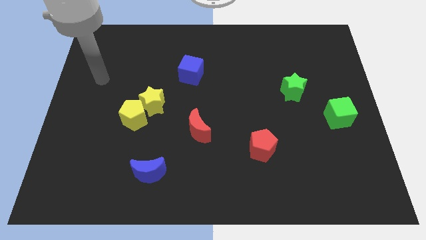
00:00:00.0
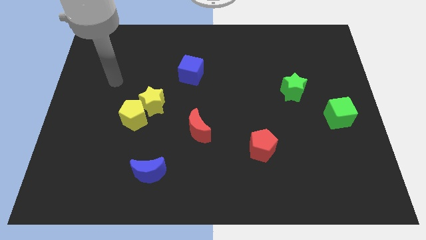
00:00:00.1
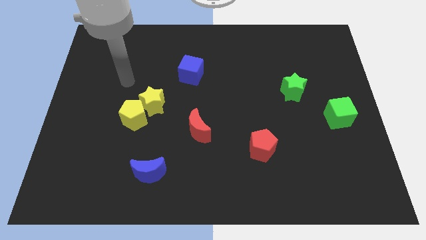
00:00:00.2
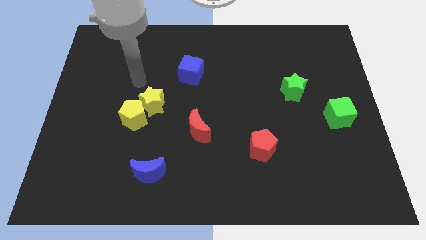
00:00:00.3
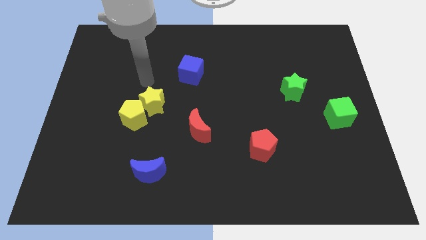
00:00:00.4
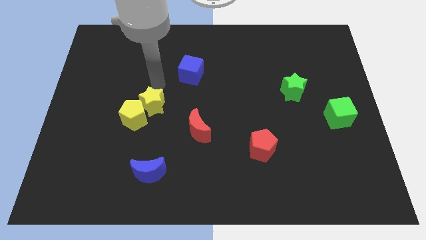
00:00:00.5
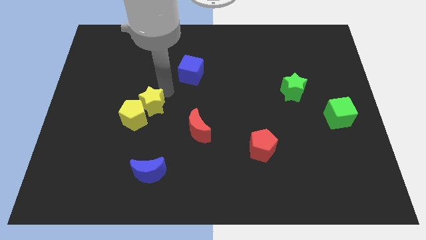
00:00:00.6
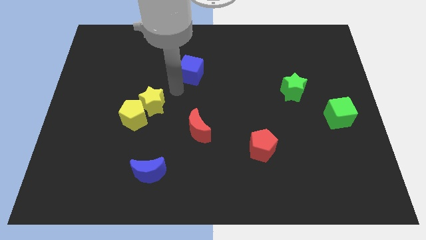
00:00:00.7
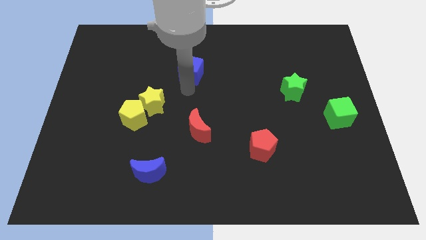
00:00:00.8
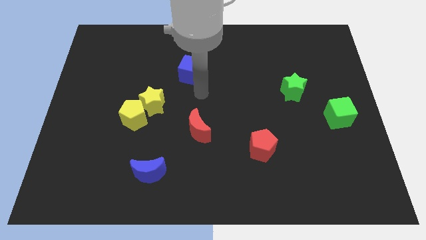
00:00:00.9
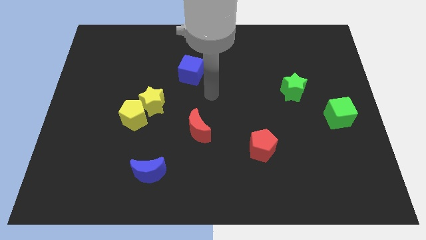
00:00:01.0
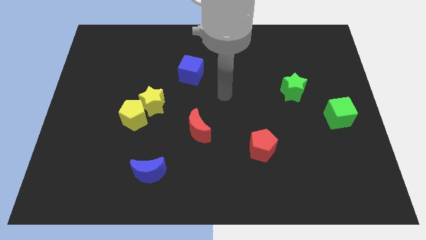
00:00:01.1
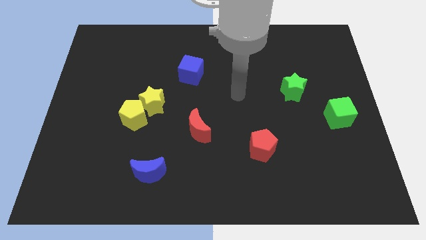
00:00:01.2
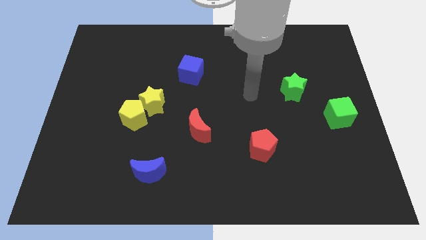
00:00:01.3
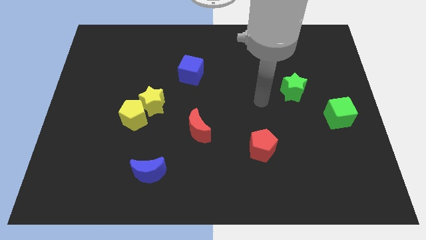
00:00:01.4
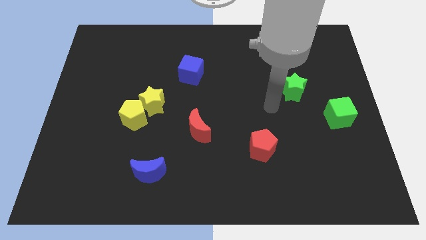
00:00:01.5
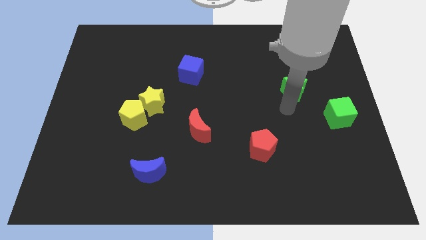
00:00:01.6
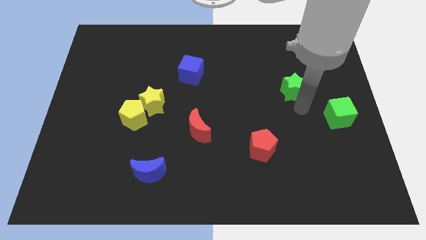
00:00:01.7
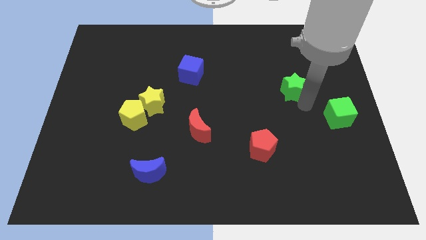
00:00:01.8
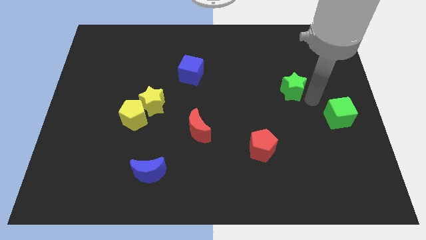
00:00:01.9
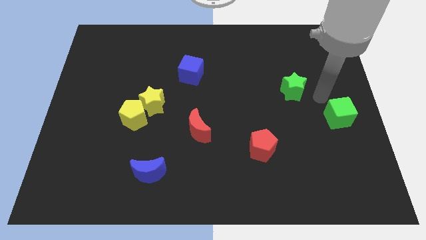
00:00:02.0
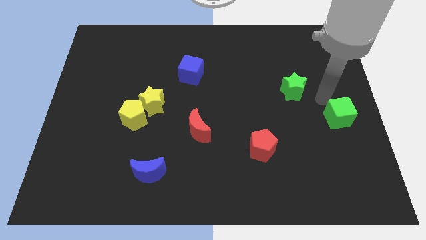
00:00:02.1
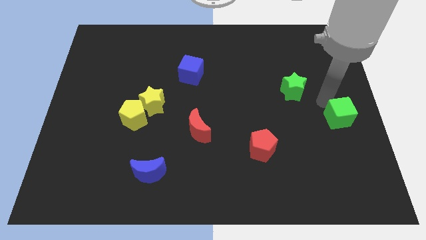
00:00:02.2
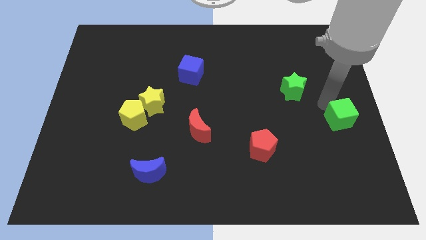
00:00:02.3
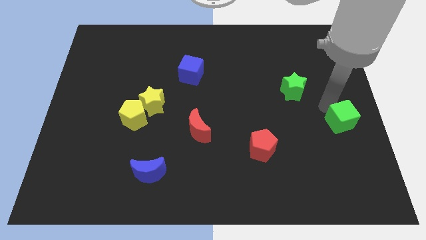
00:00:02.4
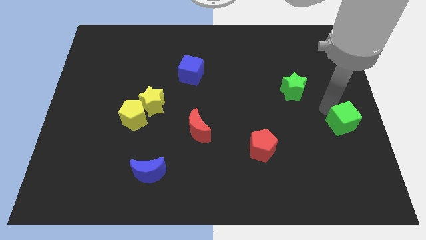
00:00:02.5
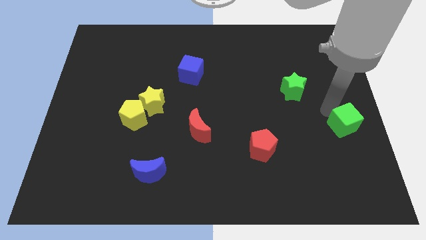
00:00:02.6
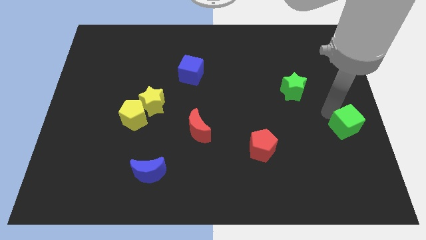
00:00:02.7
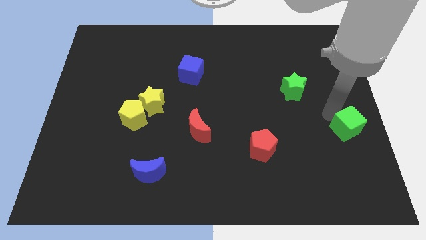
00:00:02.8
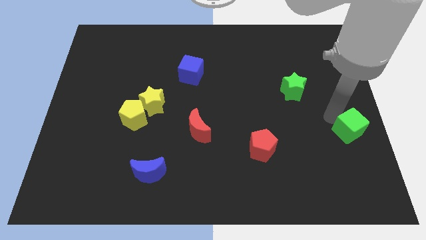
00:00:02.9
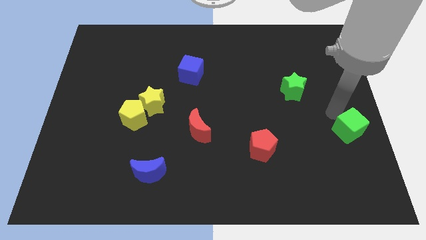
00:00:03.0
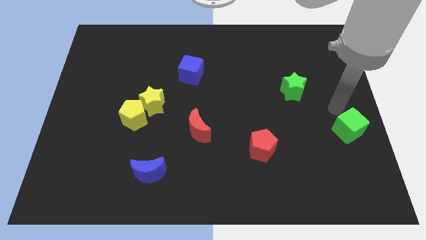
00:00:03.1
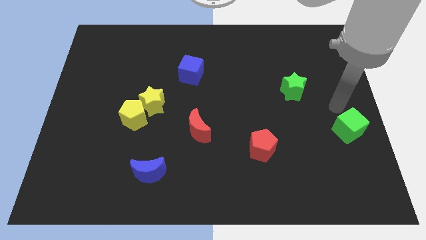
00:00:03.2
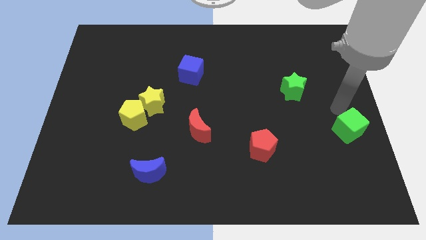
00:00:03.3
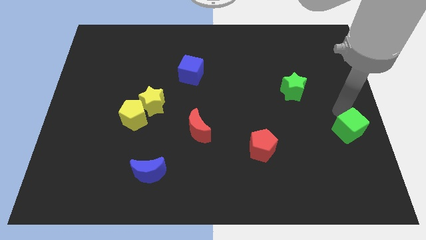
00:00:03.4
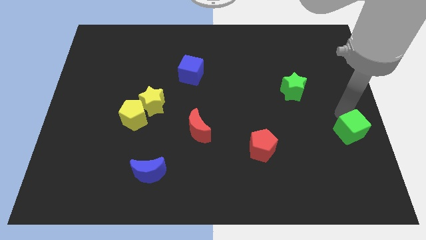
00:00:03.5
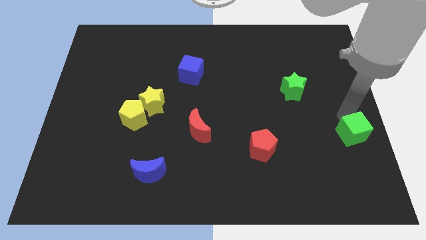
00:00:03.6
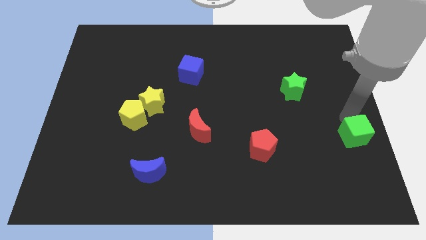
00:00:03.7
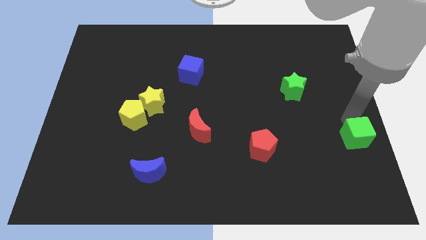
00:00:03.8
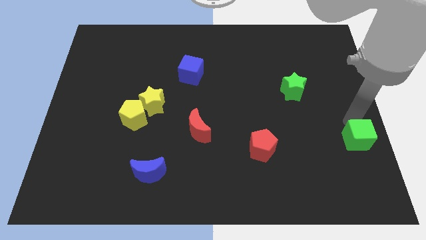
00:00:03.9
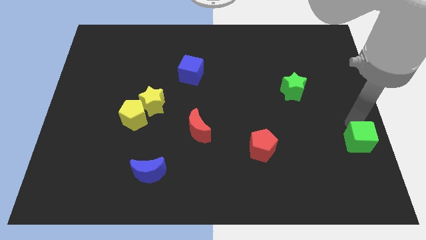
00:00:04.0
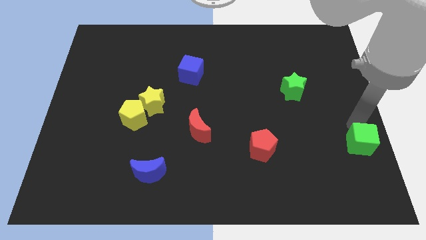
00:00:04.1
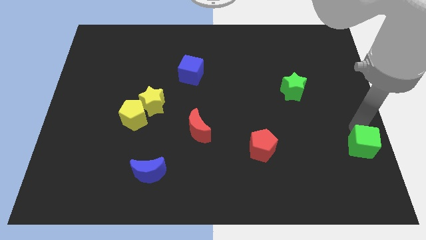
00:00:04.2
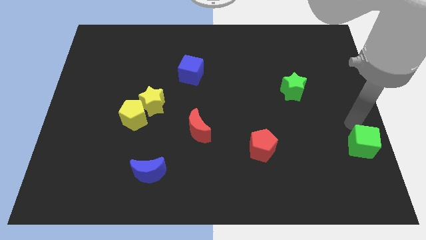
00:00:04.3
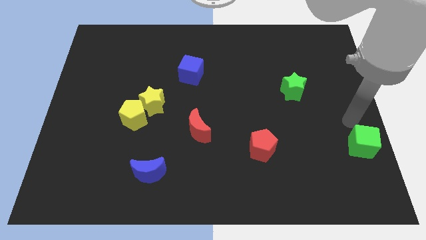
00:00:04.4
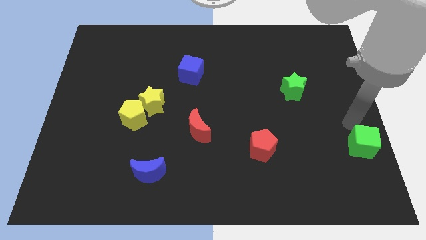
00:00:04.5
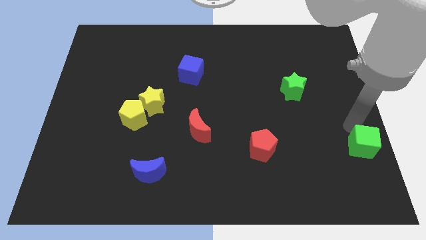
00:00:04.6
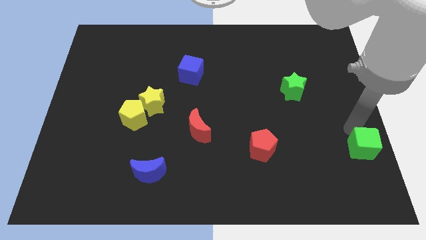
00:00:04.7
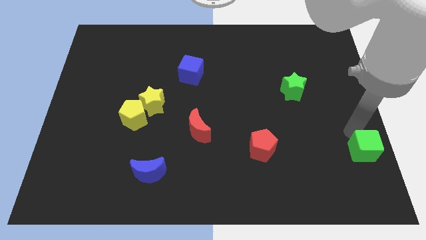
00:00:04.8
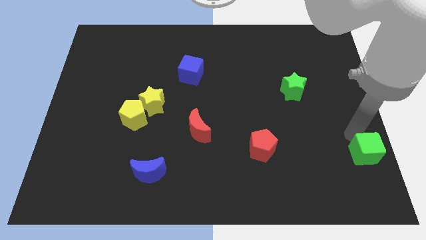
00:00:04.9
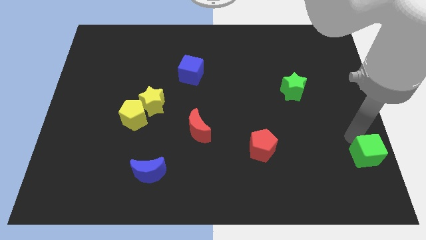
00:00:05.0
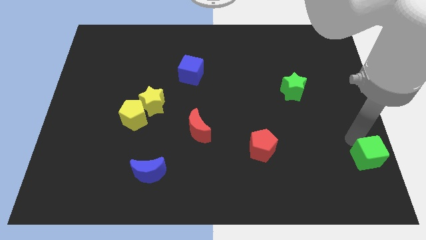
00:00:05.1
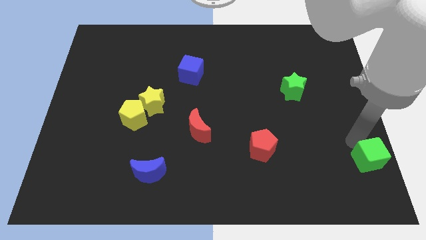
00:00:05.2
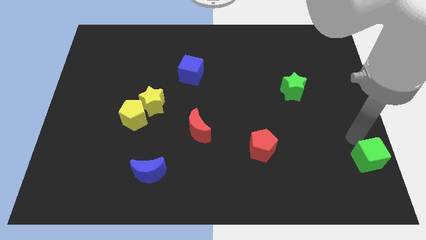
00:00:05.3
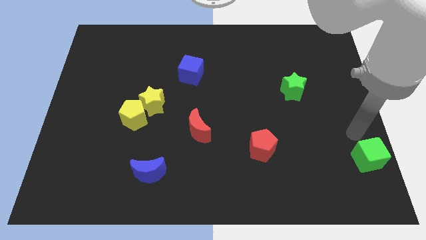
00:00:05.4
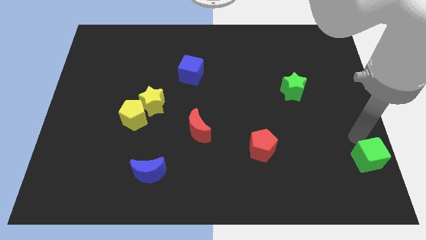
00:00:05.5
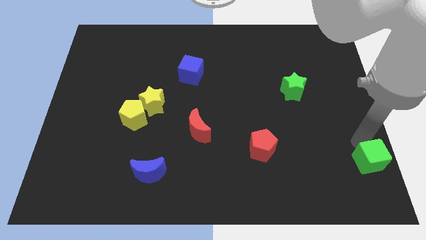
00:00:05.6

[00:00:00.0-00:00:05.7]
push the green cube to the bottom right of the board

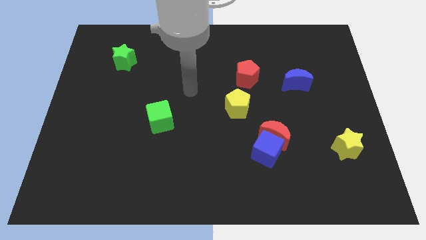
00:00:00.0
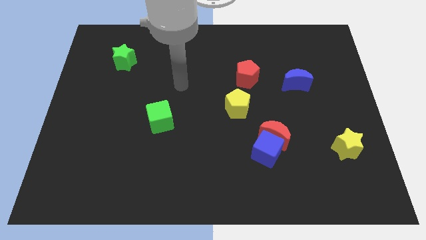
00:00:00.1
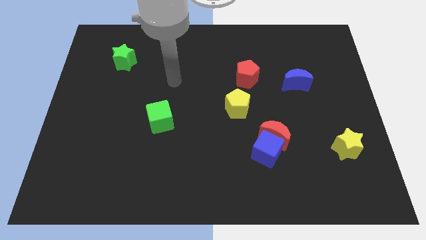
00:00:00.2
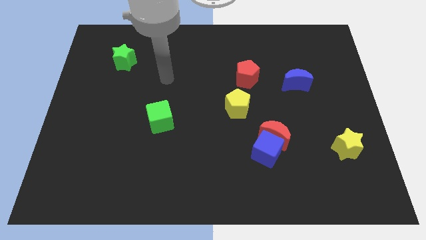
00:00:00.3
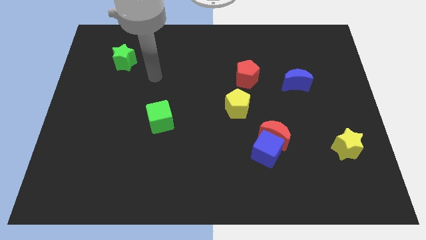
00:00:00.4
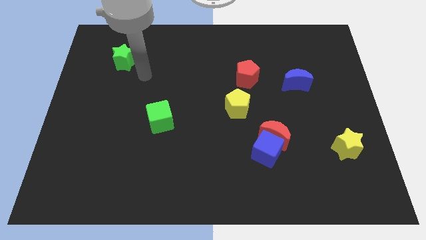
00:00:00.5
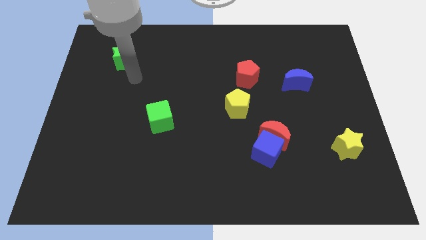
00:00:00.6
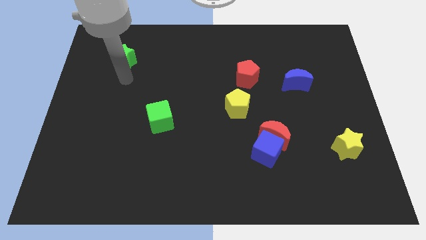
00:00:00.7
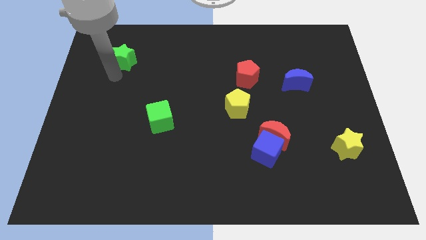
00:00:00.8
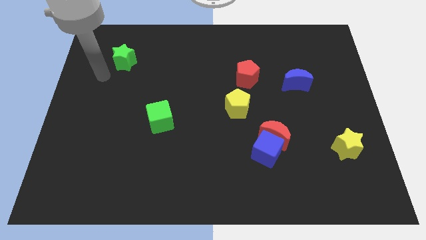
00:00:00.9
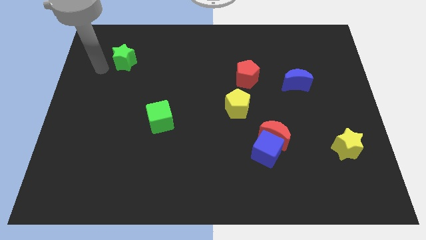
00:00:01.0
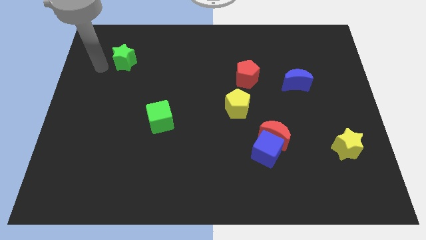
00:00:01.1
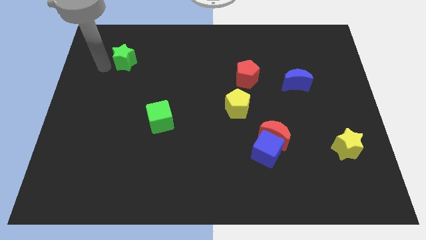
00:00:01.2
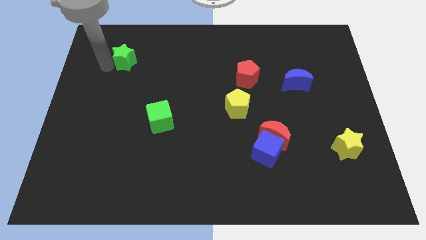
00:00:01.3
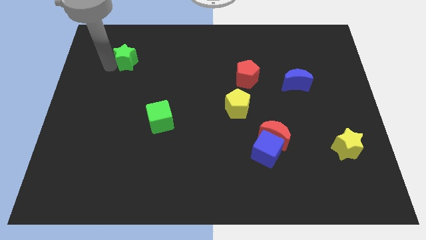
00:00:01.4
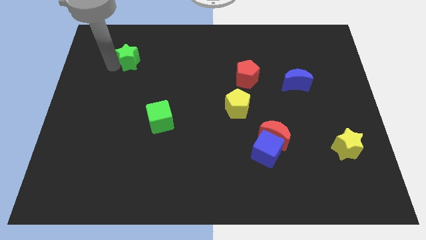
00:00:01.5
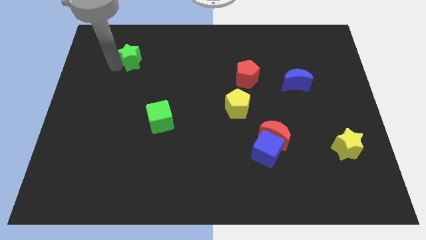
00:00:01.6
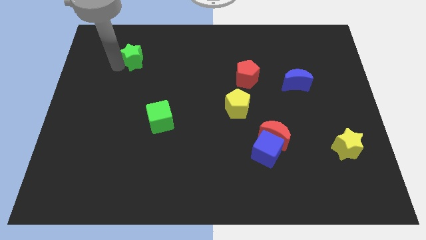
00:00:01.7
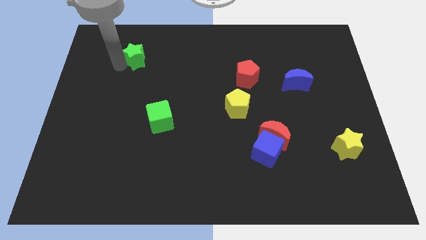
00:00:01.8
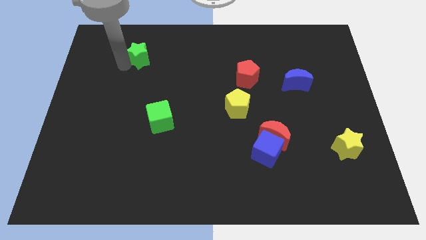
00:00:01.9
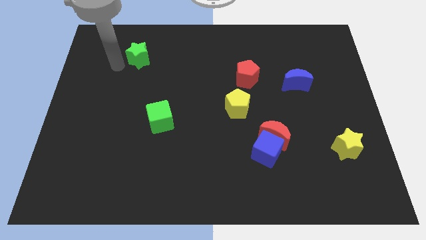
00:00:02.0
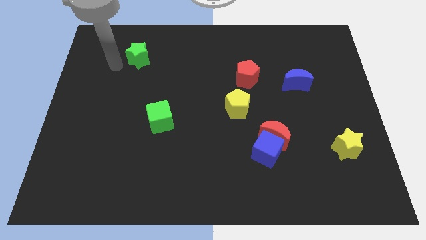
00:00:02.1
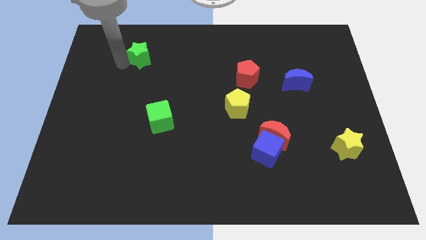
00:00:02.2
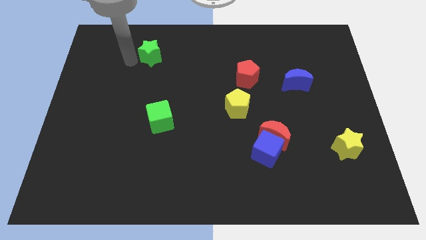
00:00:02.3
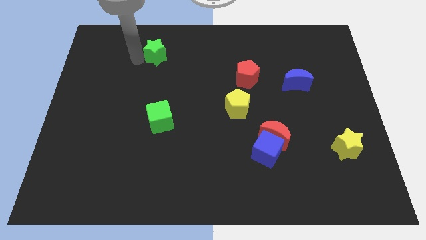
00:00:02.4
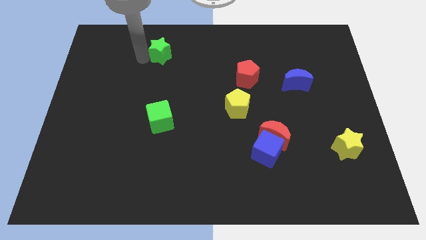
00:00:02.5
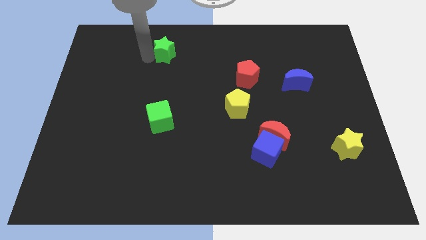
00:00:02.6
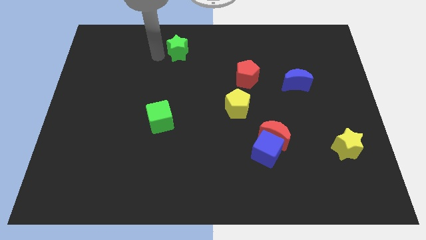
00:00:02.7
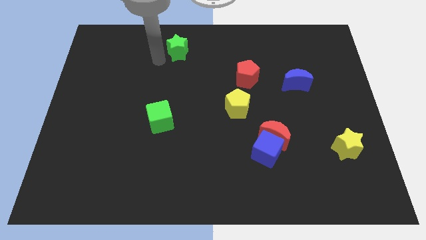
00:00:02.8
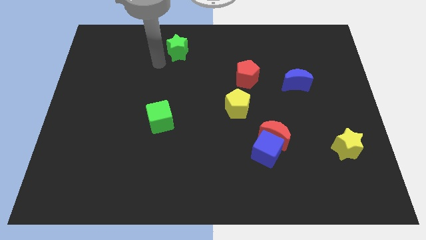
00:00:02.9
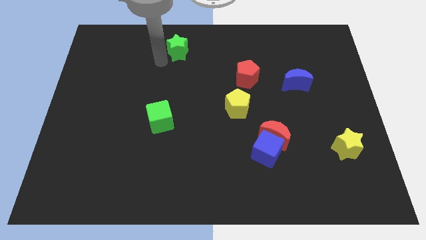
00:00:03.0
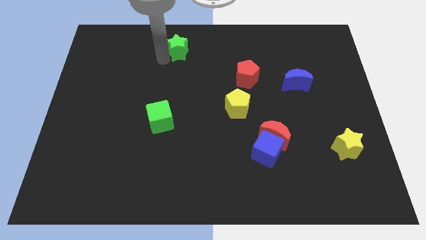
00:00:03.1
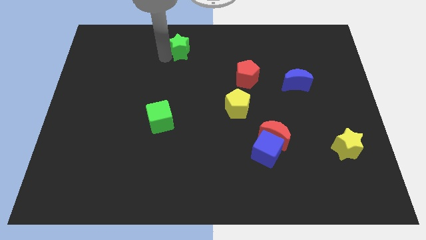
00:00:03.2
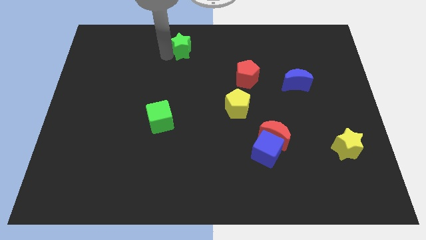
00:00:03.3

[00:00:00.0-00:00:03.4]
push the green star to the towards your base
